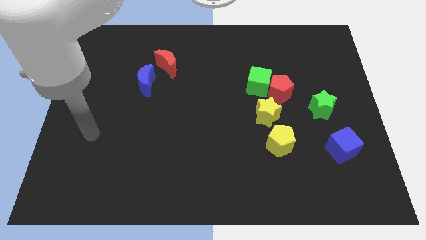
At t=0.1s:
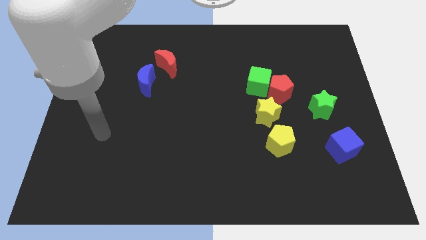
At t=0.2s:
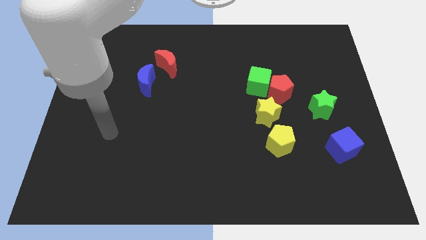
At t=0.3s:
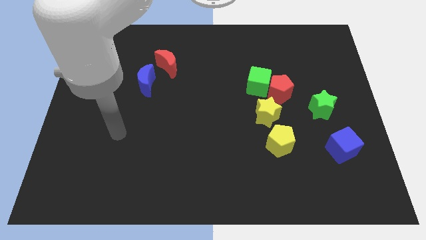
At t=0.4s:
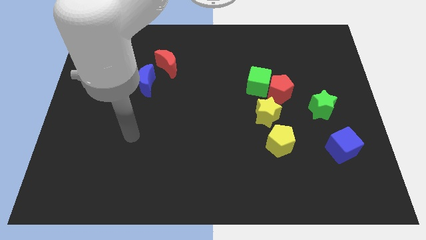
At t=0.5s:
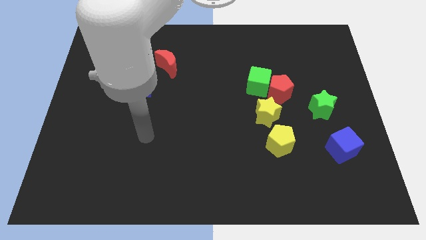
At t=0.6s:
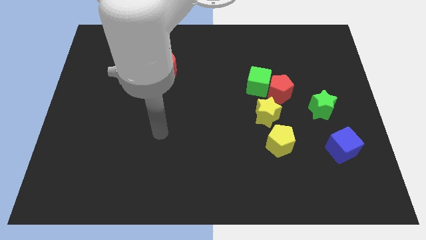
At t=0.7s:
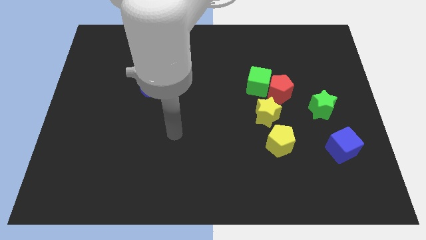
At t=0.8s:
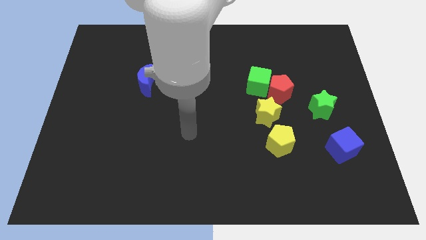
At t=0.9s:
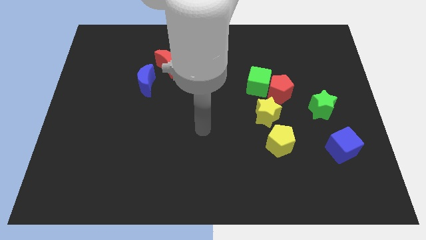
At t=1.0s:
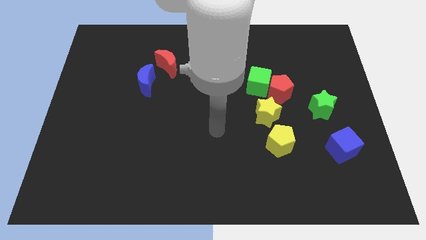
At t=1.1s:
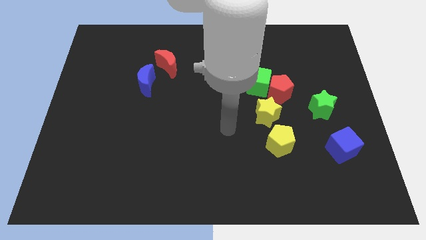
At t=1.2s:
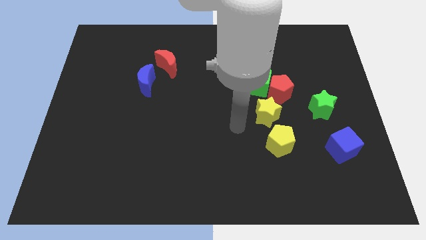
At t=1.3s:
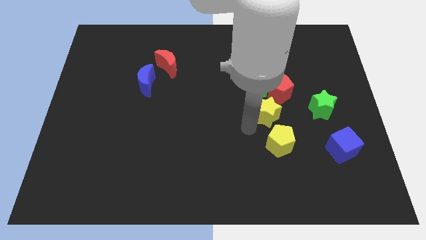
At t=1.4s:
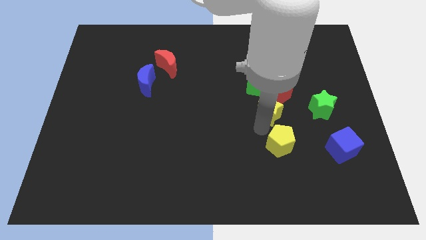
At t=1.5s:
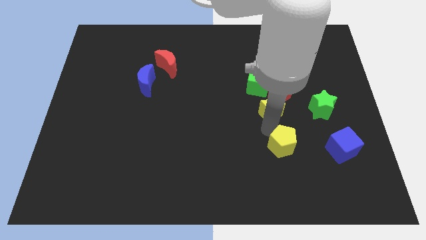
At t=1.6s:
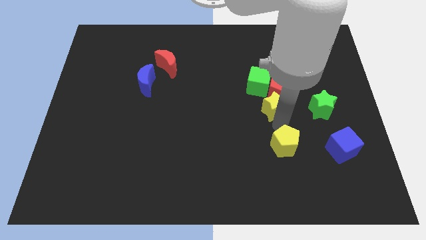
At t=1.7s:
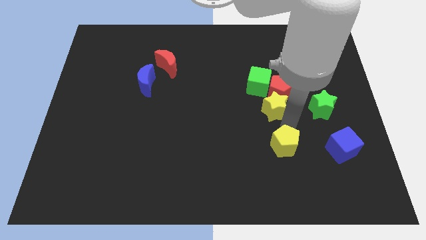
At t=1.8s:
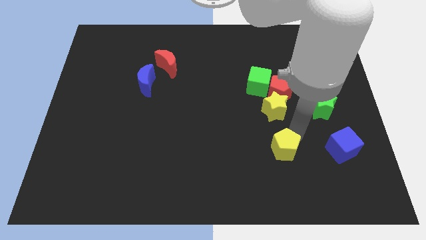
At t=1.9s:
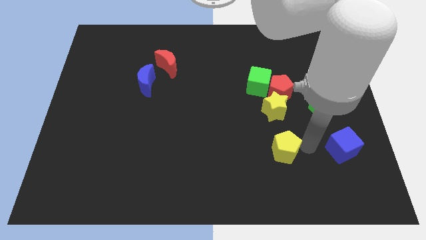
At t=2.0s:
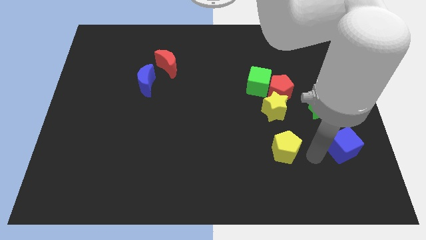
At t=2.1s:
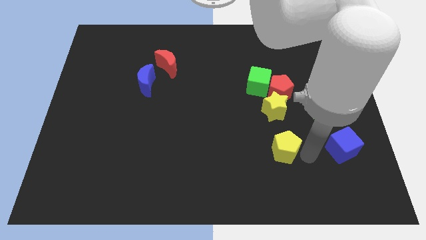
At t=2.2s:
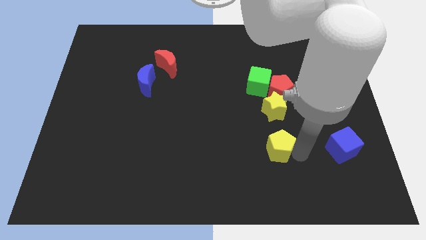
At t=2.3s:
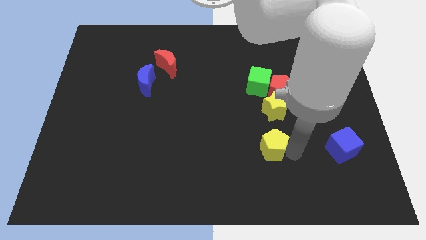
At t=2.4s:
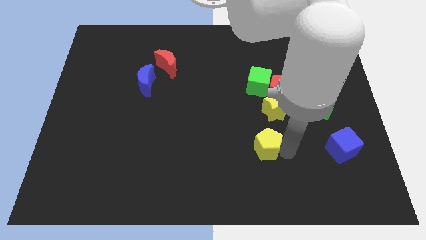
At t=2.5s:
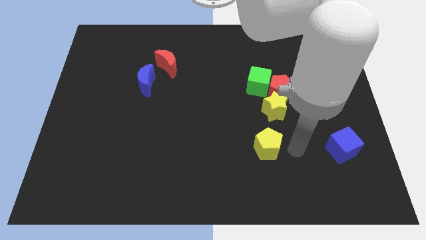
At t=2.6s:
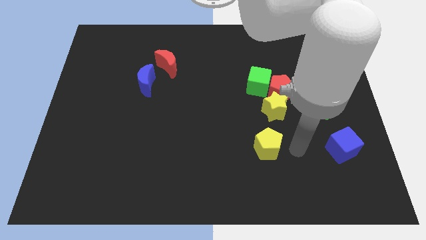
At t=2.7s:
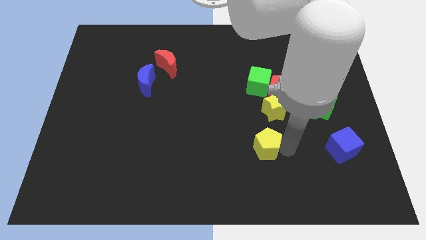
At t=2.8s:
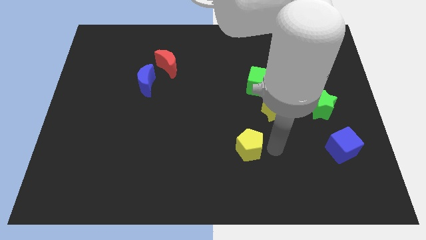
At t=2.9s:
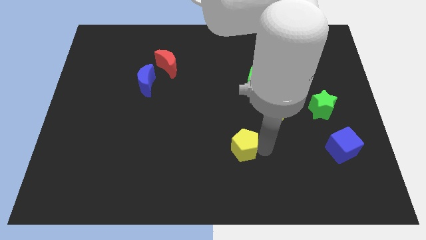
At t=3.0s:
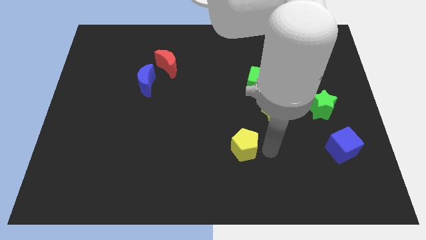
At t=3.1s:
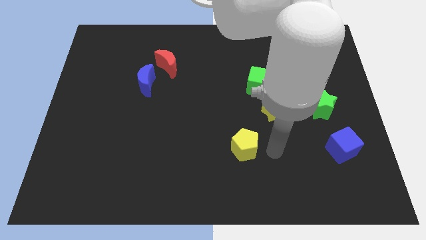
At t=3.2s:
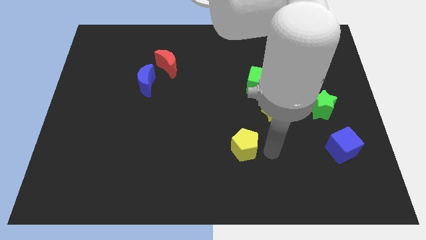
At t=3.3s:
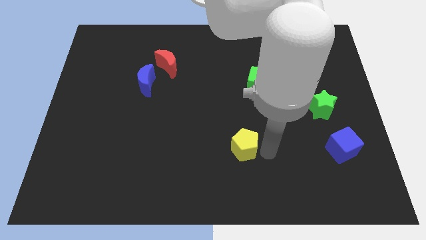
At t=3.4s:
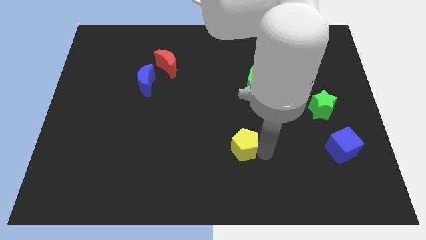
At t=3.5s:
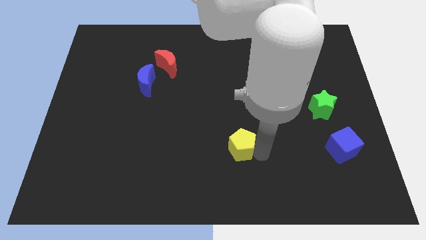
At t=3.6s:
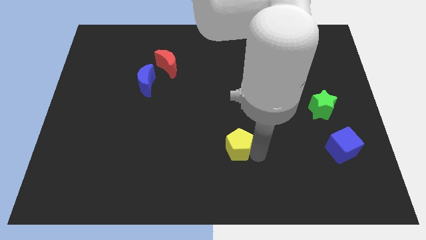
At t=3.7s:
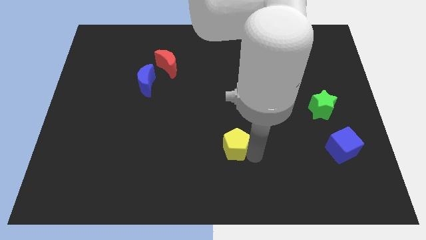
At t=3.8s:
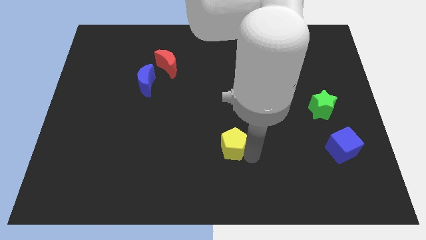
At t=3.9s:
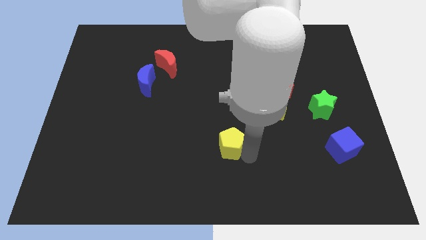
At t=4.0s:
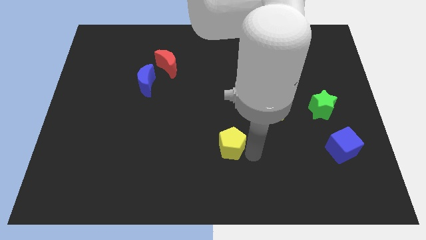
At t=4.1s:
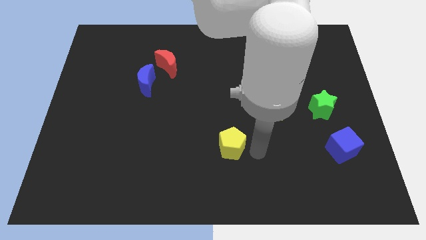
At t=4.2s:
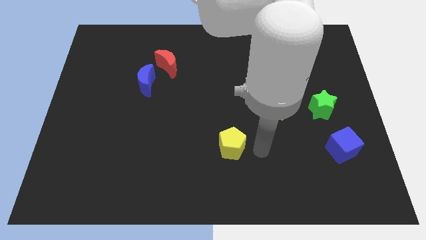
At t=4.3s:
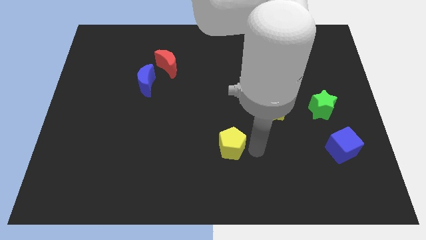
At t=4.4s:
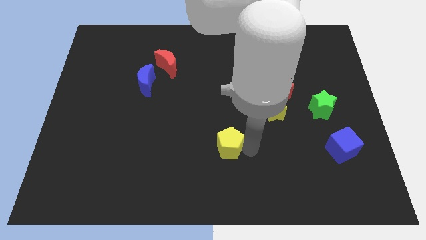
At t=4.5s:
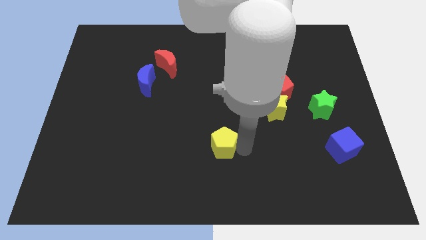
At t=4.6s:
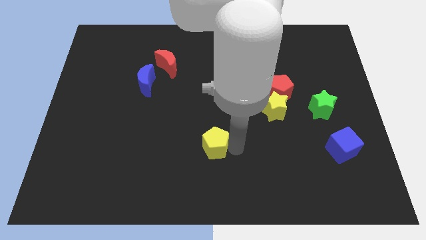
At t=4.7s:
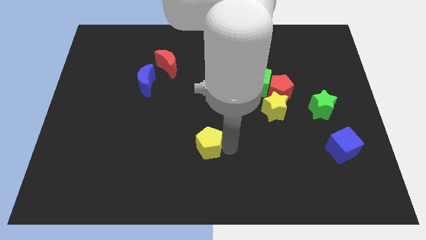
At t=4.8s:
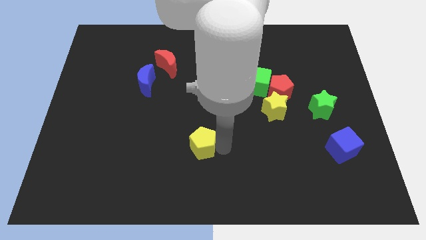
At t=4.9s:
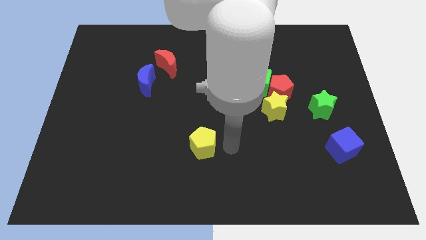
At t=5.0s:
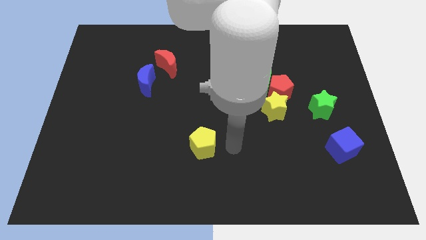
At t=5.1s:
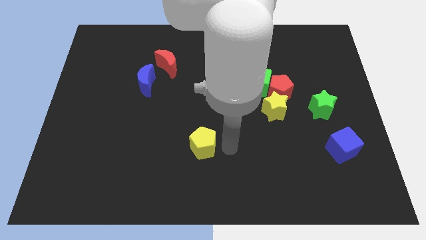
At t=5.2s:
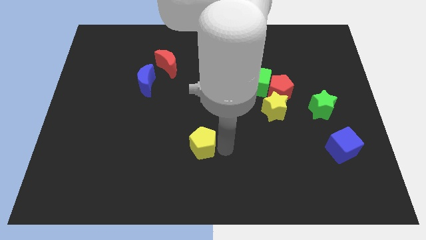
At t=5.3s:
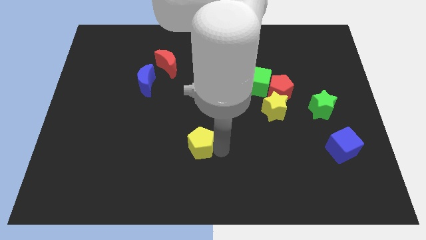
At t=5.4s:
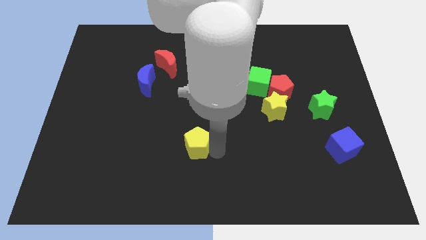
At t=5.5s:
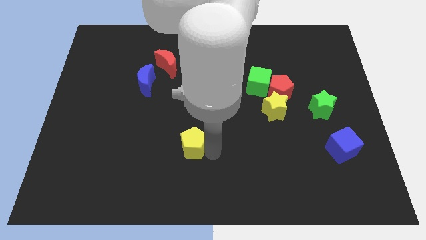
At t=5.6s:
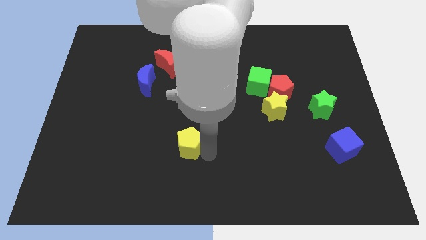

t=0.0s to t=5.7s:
push the yellow pentagon left

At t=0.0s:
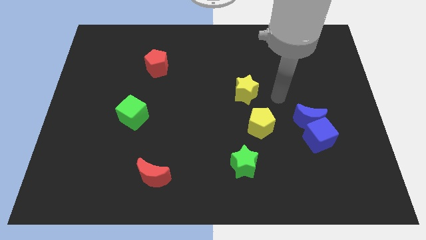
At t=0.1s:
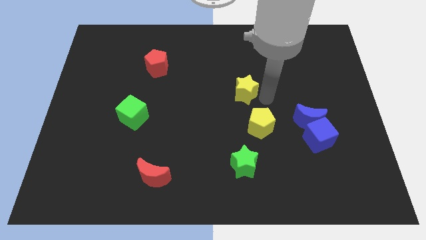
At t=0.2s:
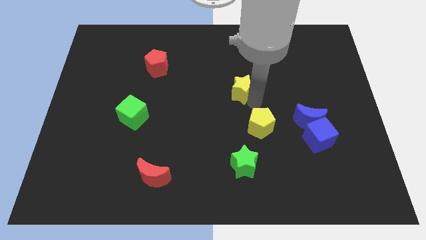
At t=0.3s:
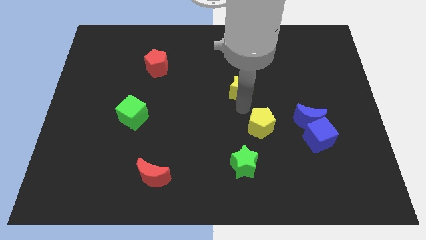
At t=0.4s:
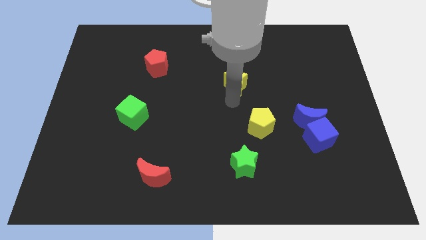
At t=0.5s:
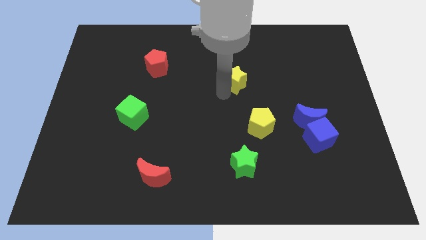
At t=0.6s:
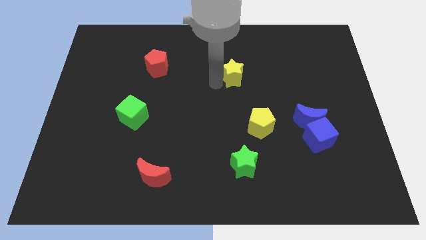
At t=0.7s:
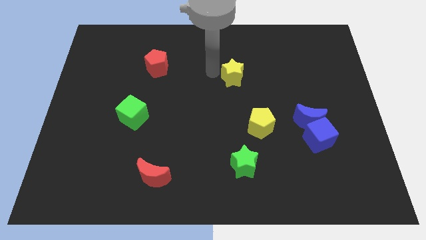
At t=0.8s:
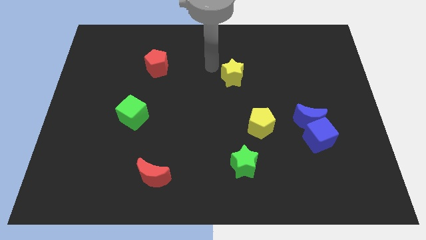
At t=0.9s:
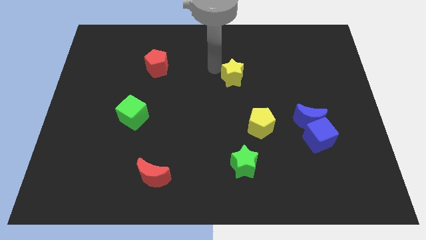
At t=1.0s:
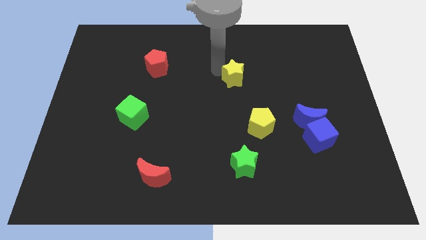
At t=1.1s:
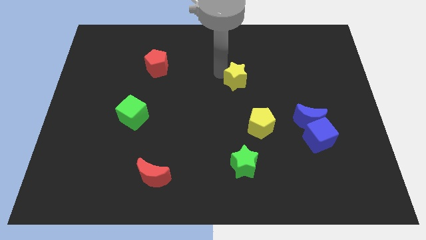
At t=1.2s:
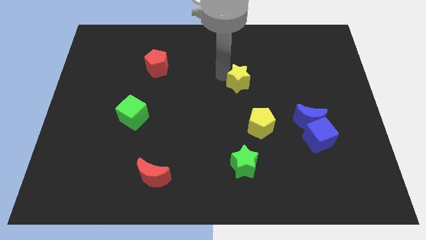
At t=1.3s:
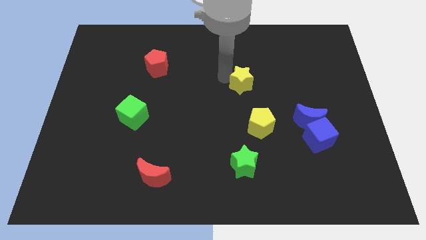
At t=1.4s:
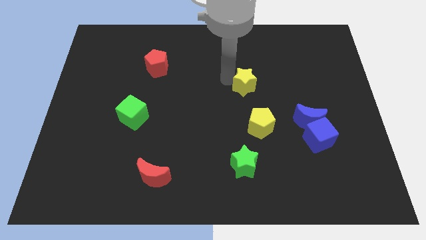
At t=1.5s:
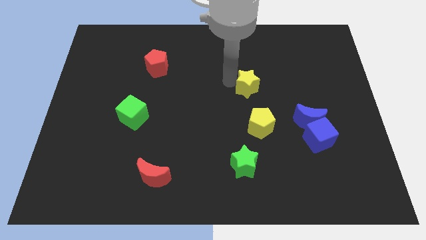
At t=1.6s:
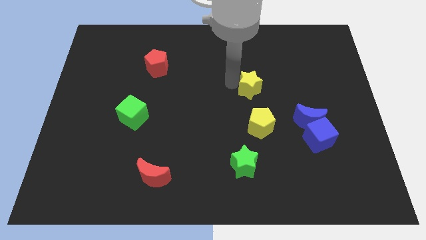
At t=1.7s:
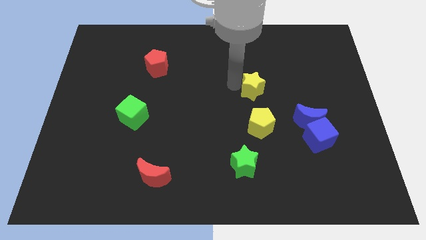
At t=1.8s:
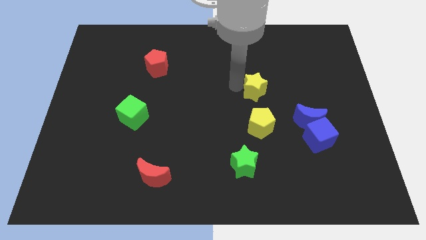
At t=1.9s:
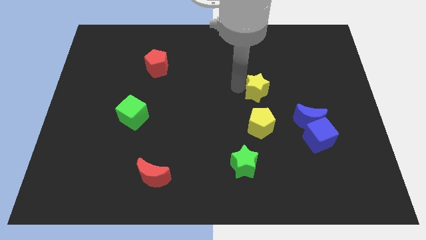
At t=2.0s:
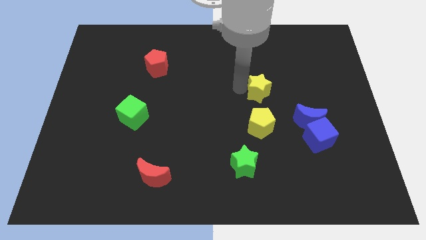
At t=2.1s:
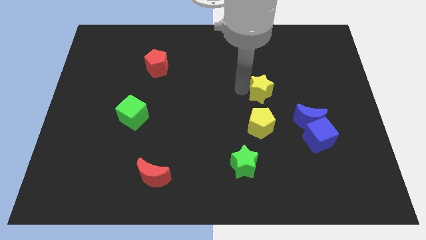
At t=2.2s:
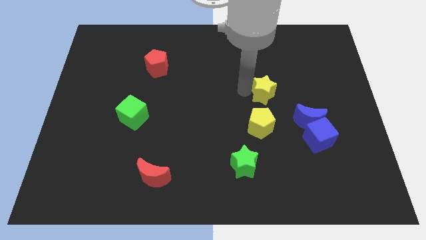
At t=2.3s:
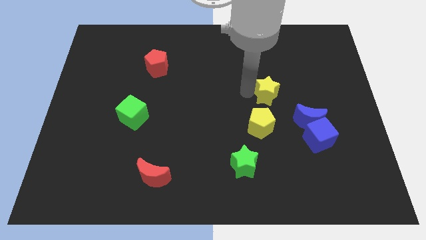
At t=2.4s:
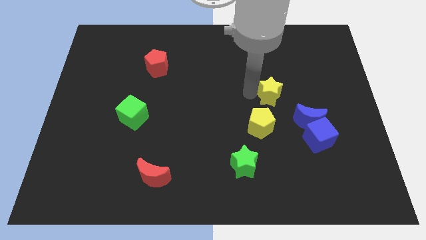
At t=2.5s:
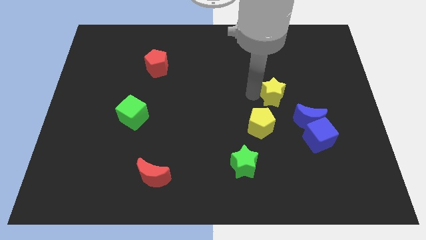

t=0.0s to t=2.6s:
push the yellow star right a bit
